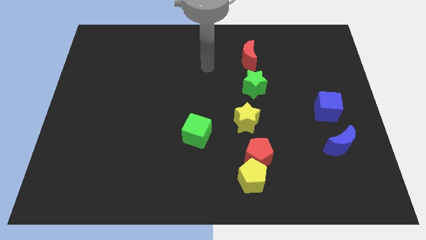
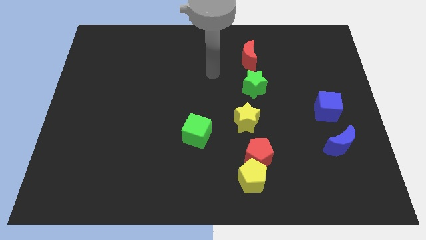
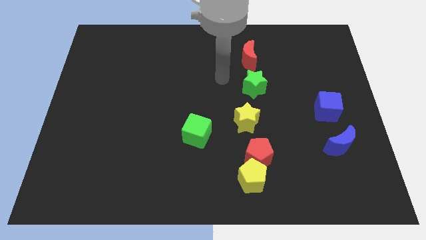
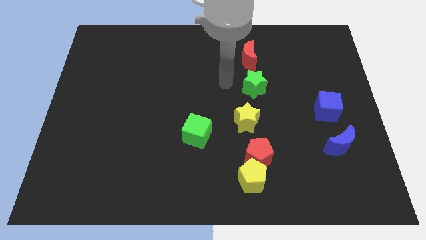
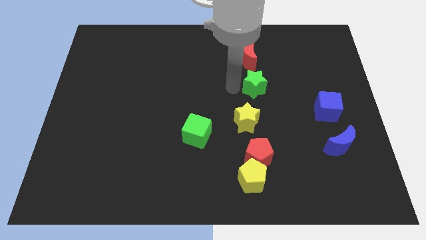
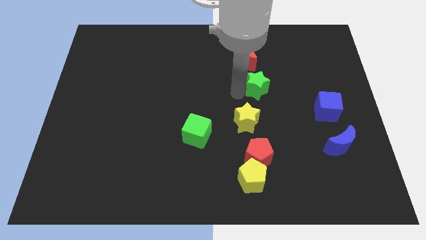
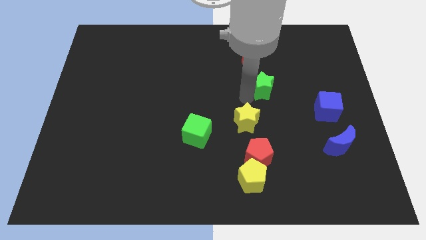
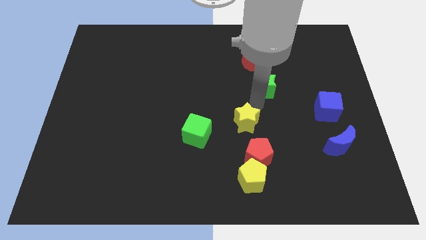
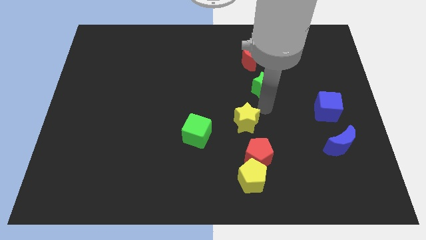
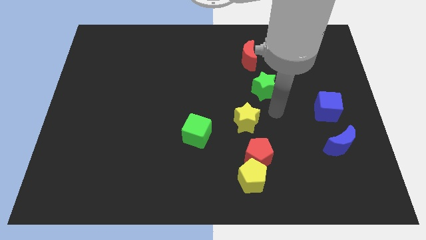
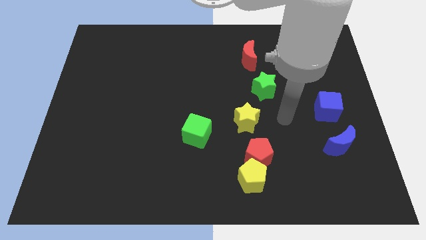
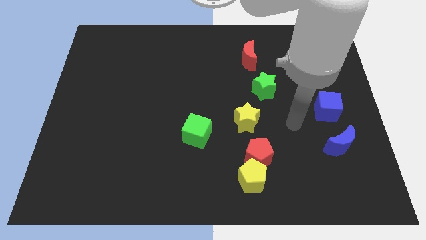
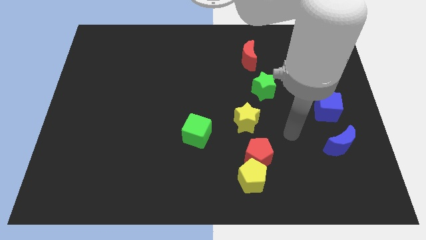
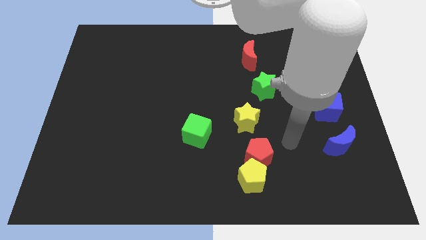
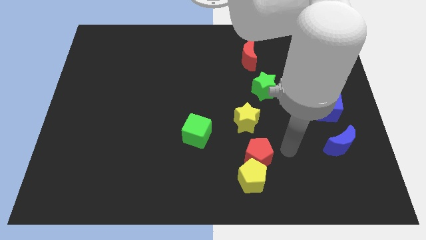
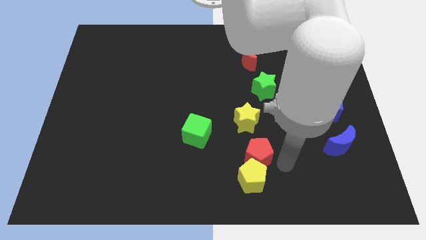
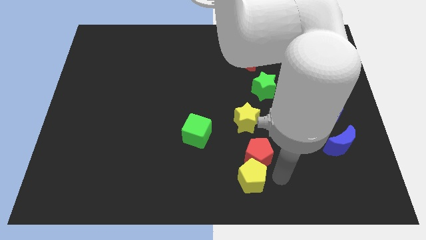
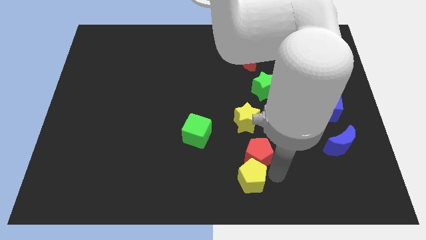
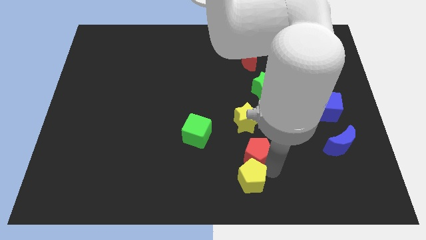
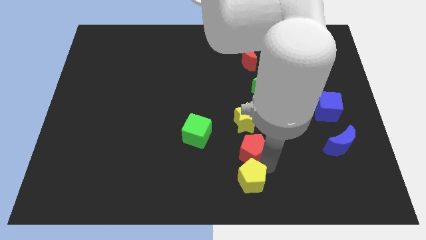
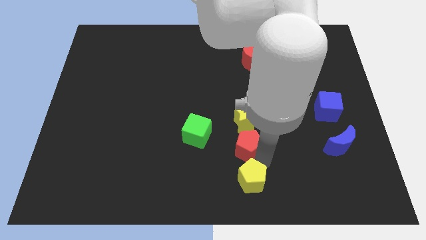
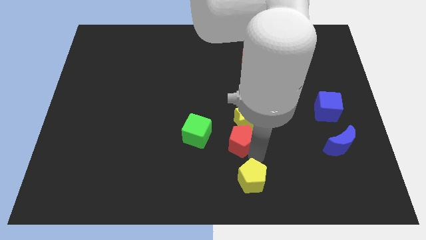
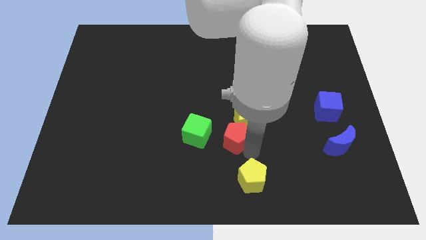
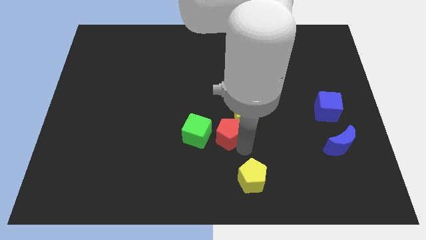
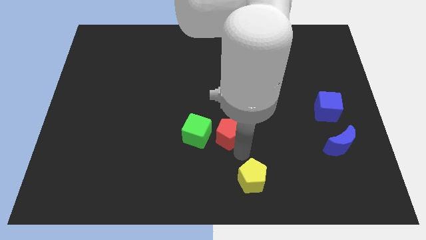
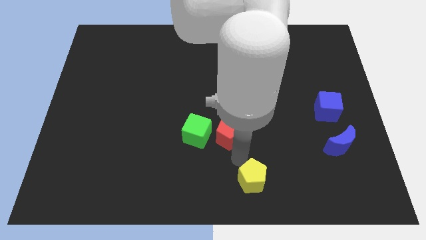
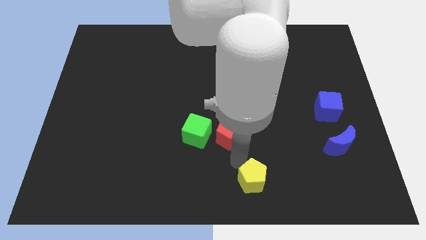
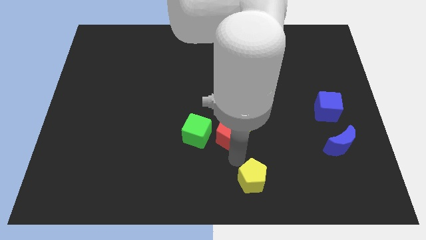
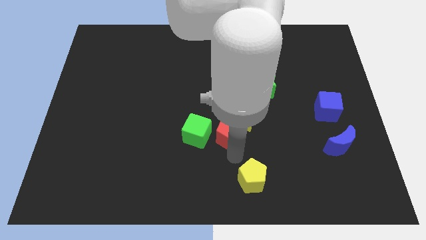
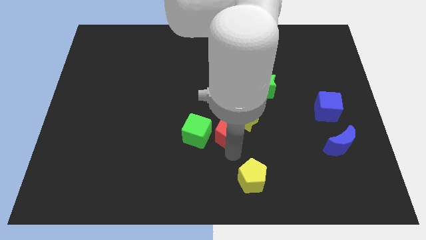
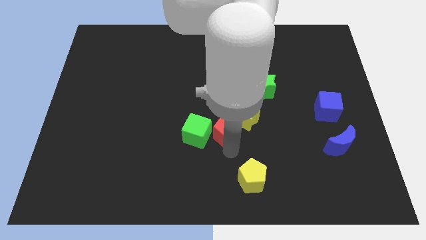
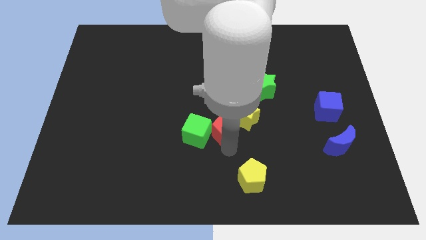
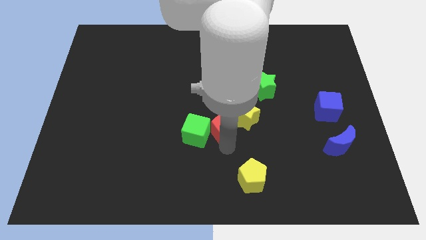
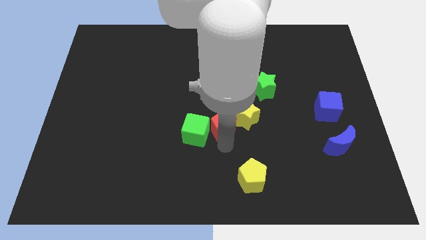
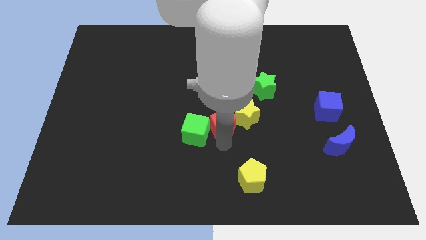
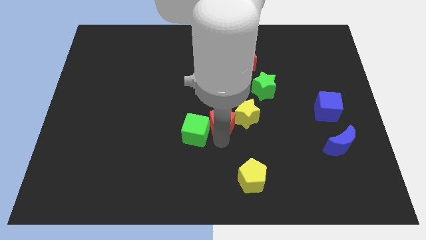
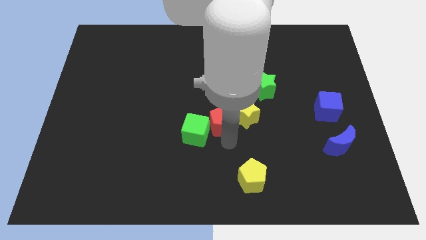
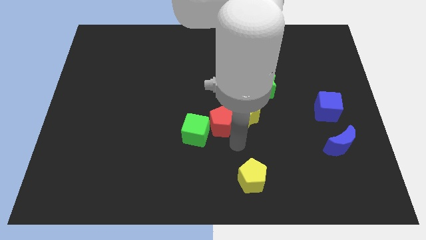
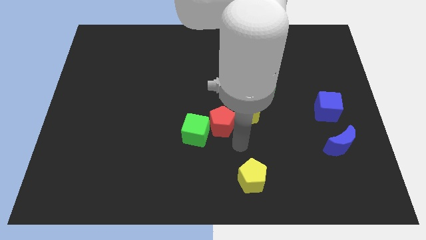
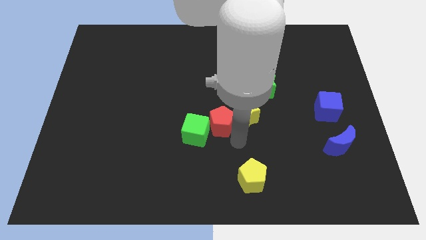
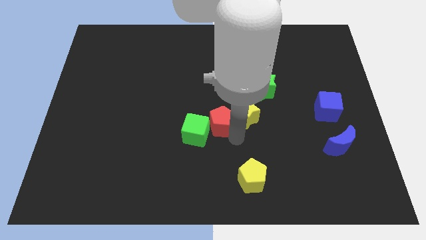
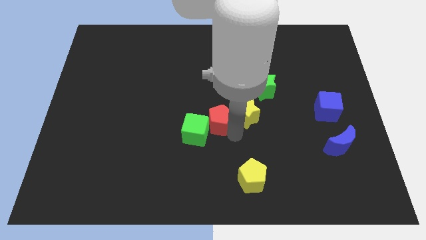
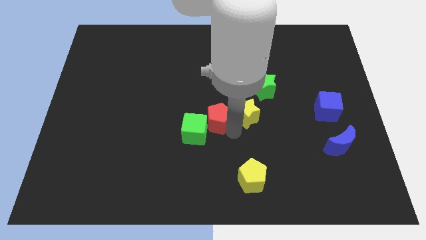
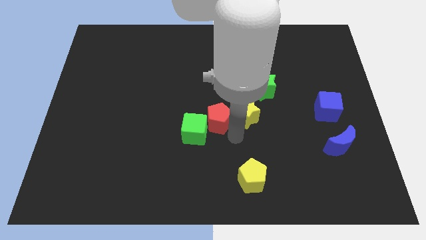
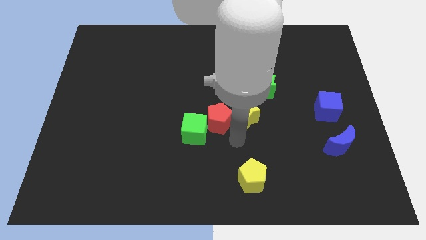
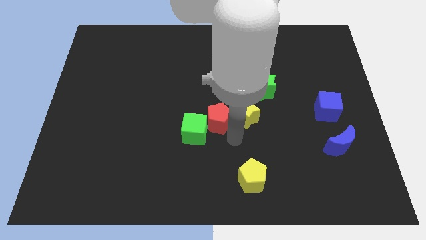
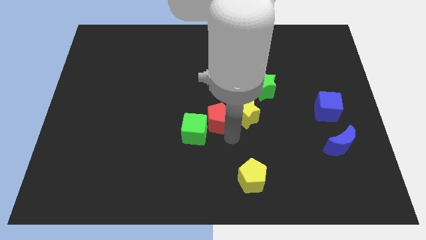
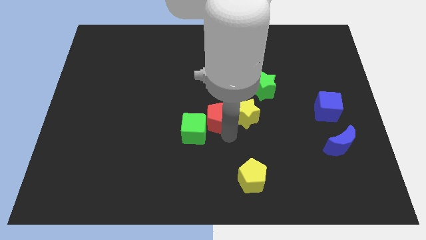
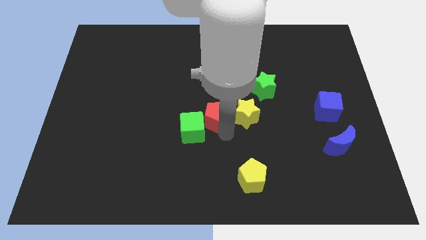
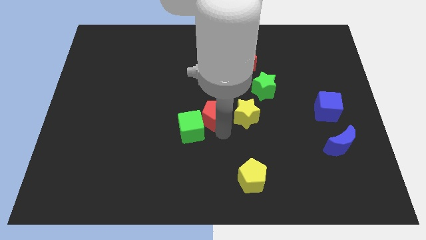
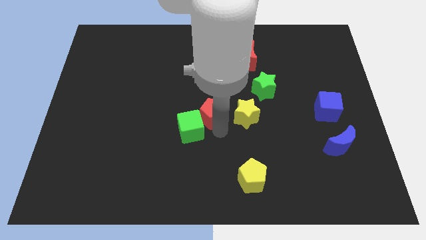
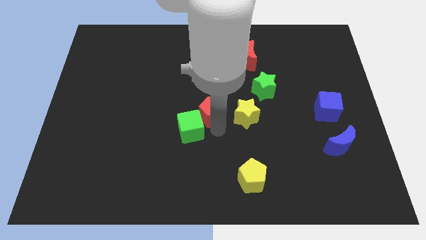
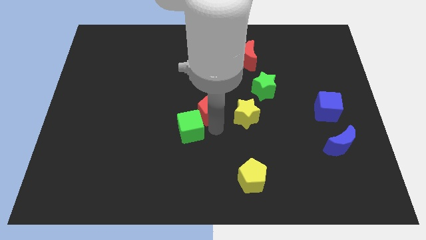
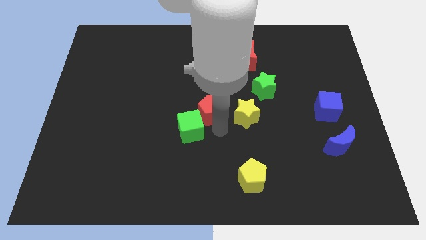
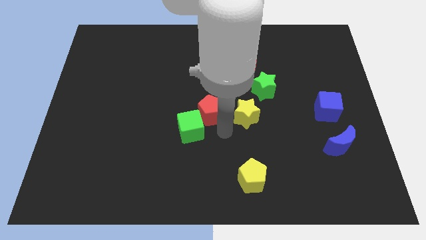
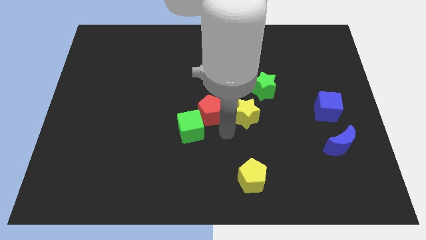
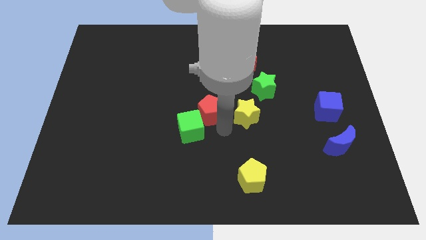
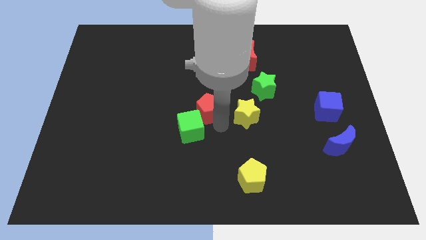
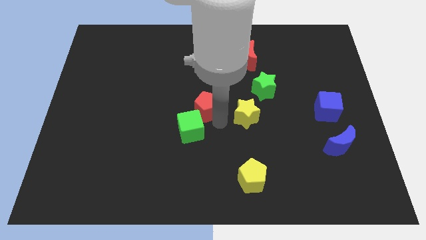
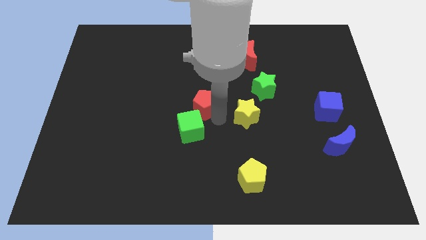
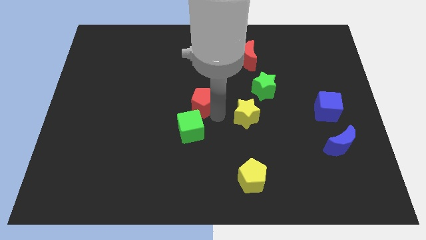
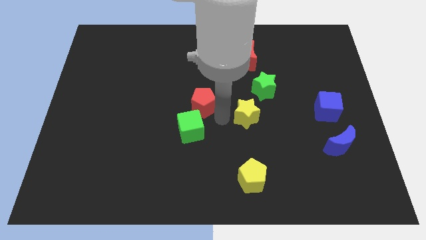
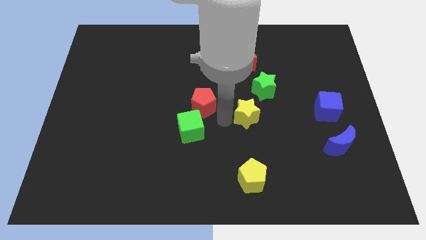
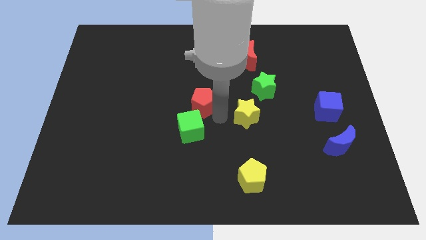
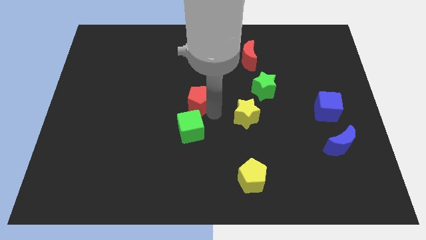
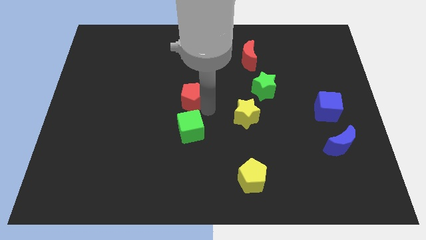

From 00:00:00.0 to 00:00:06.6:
move the red pentagon upwards and then left

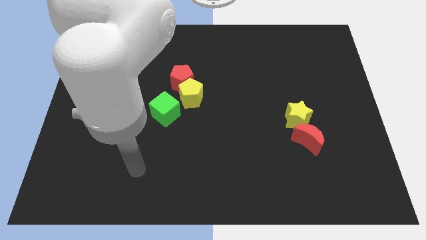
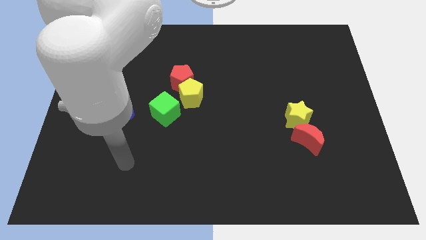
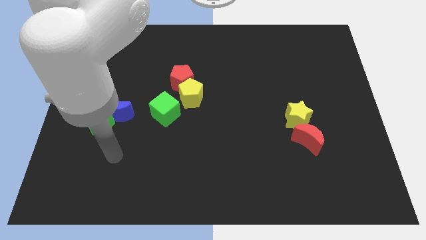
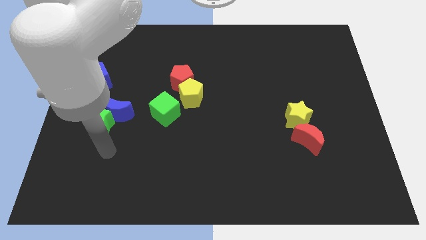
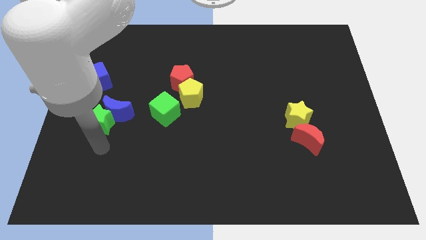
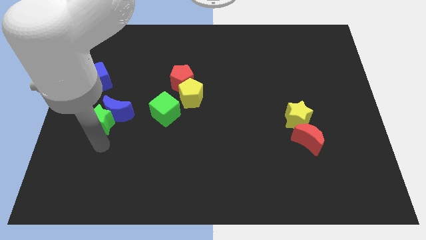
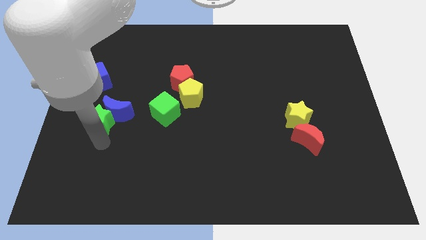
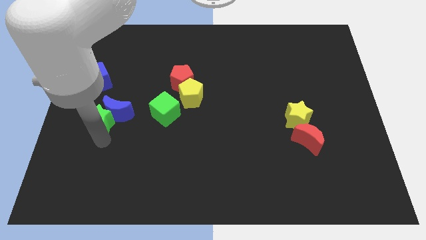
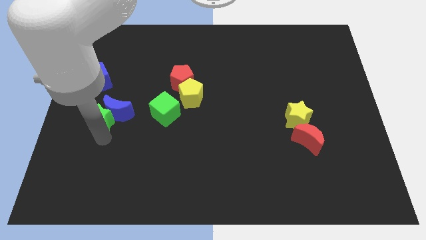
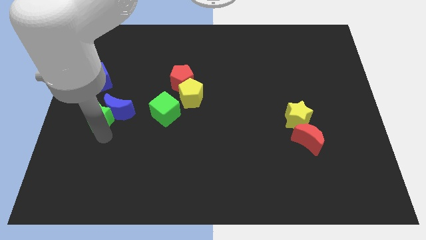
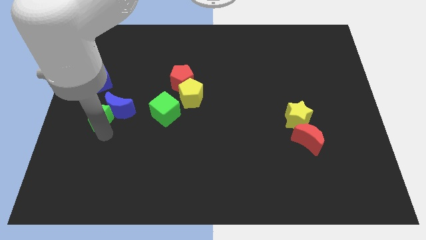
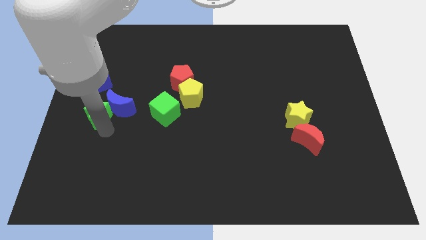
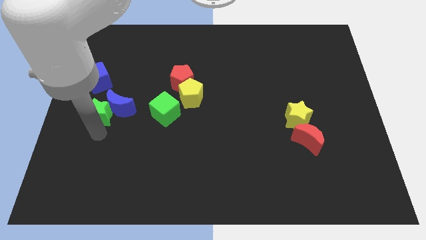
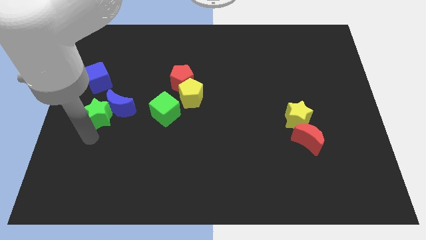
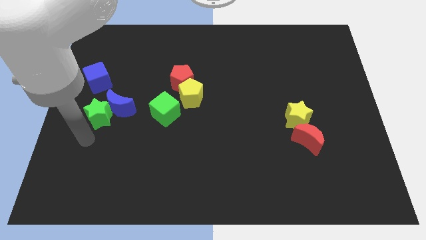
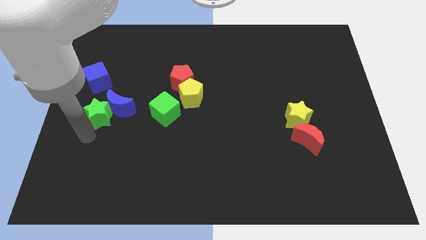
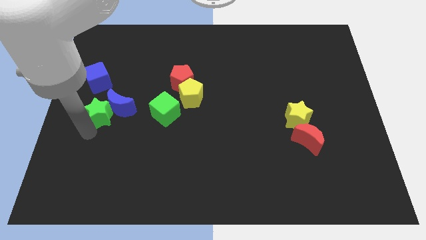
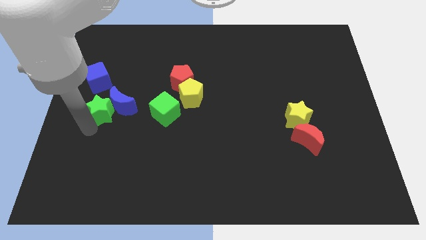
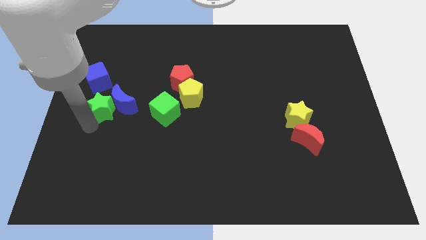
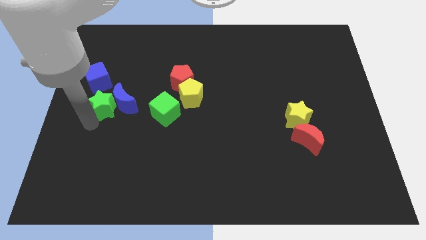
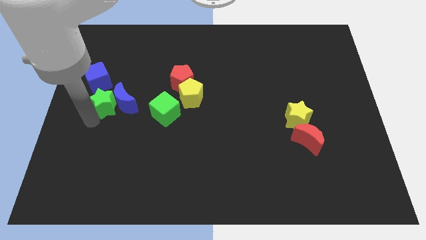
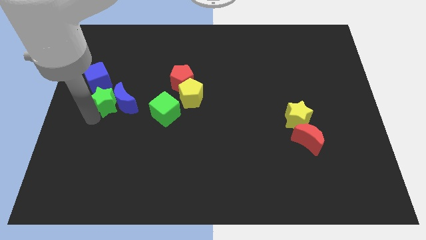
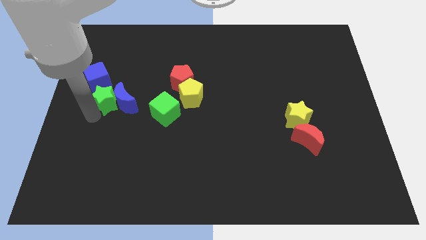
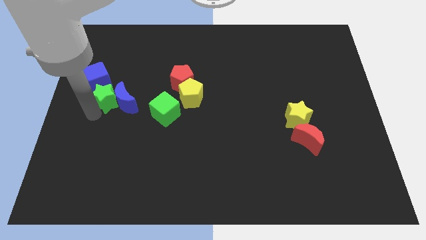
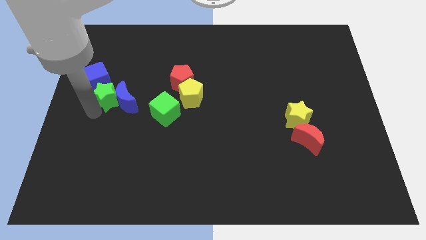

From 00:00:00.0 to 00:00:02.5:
slide the green star somewhat up
